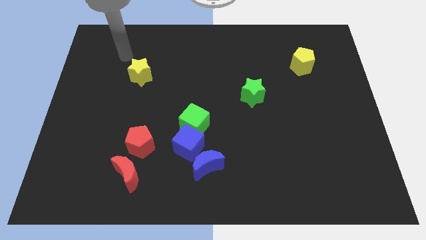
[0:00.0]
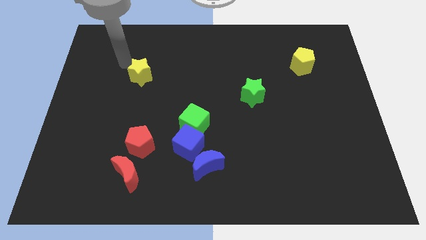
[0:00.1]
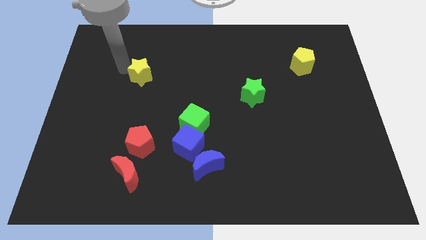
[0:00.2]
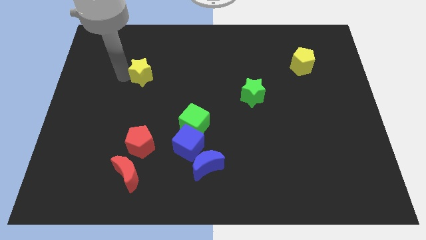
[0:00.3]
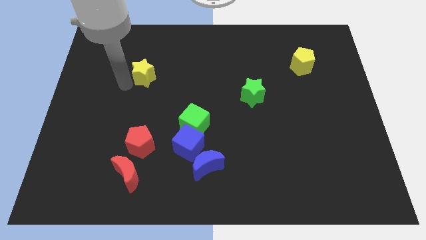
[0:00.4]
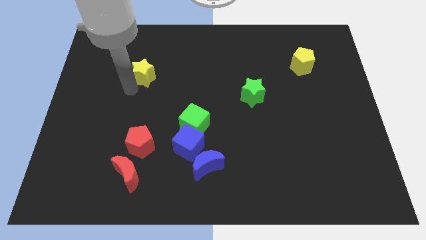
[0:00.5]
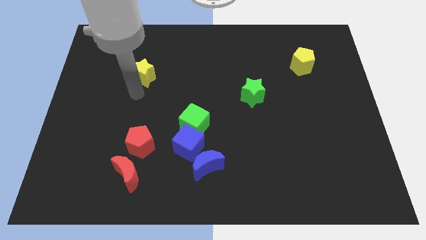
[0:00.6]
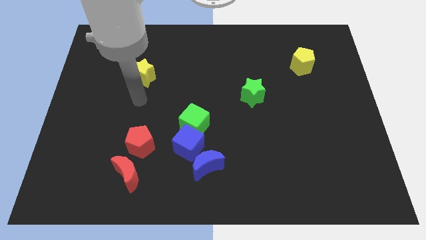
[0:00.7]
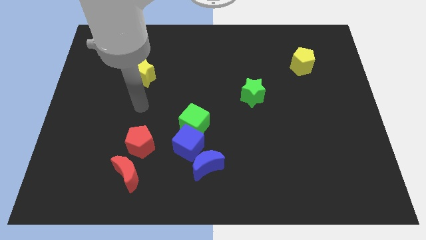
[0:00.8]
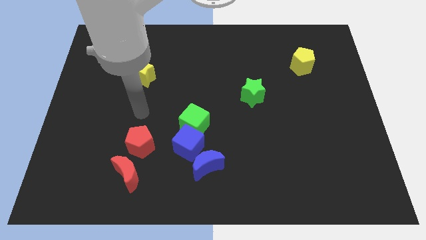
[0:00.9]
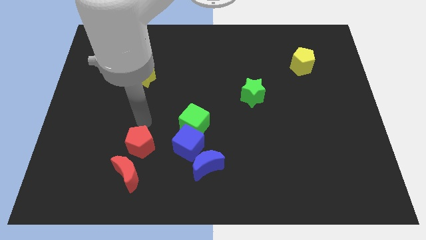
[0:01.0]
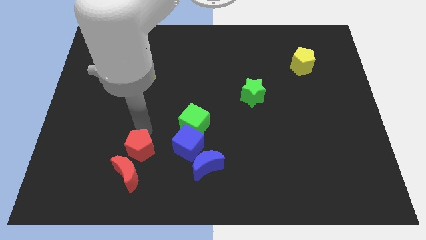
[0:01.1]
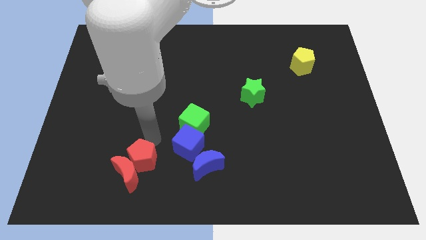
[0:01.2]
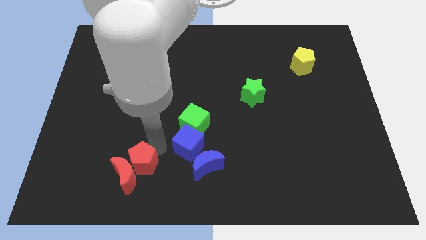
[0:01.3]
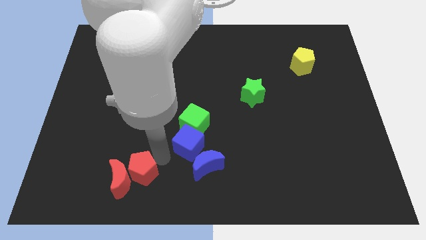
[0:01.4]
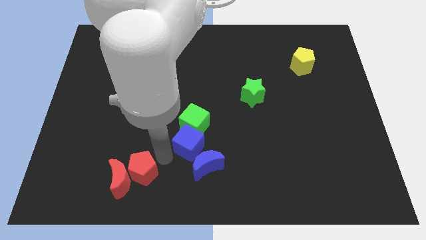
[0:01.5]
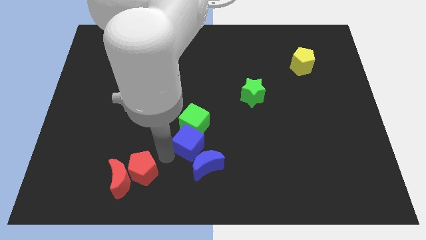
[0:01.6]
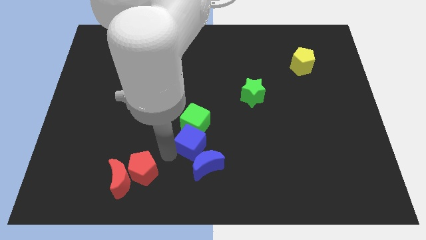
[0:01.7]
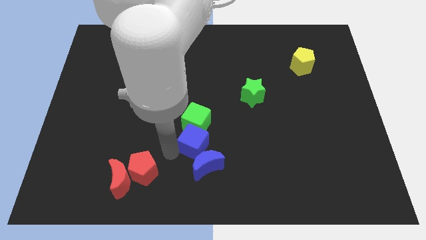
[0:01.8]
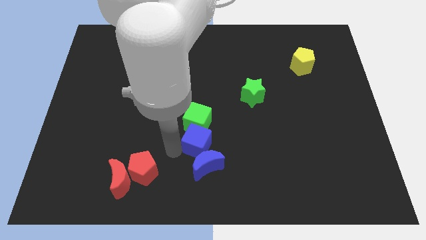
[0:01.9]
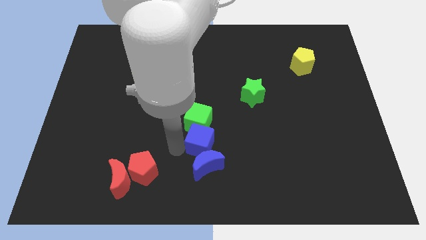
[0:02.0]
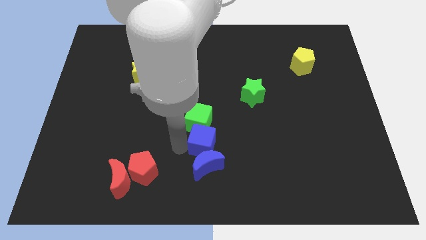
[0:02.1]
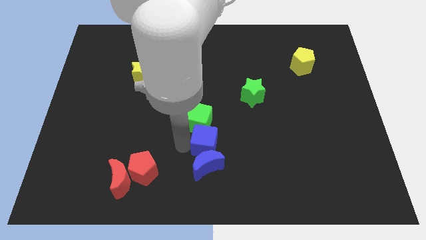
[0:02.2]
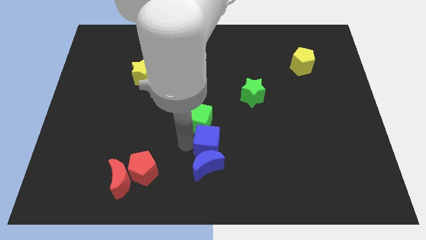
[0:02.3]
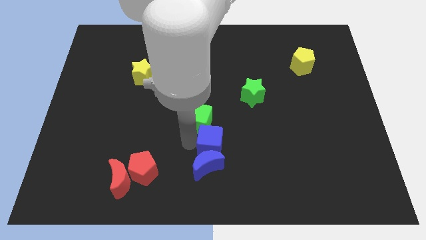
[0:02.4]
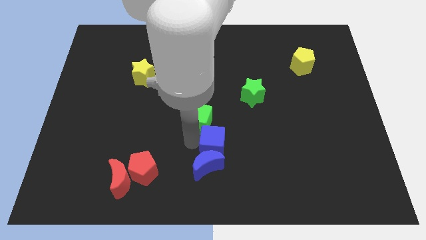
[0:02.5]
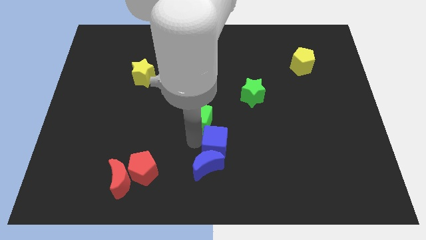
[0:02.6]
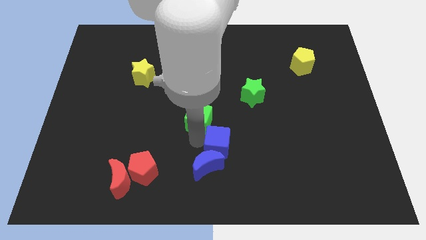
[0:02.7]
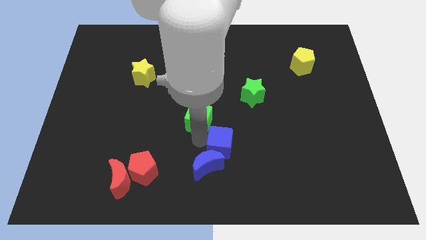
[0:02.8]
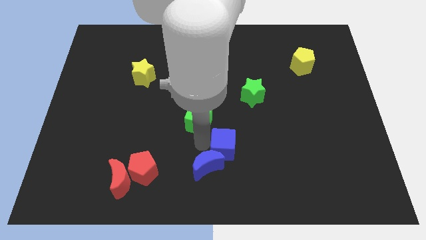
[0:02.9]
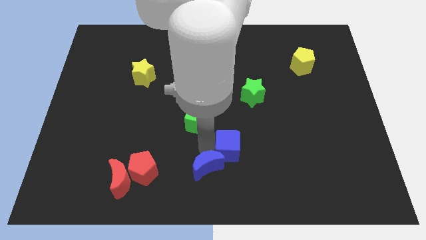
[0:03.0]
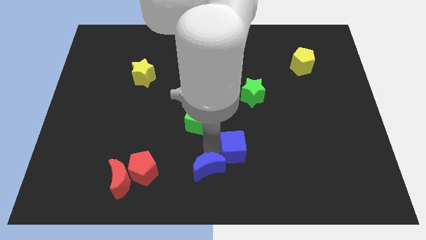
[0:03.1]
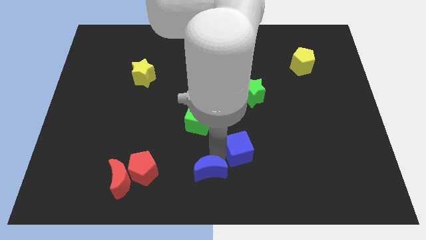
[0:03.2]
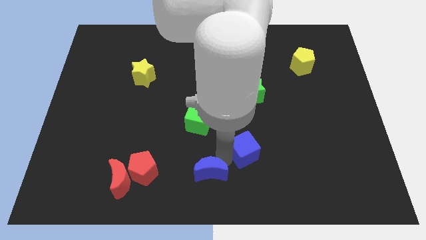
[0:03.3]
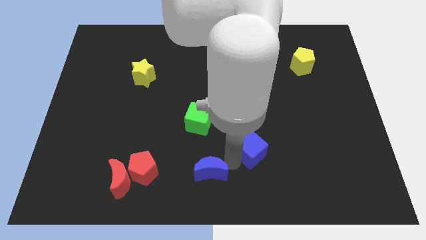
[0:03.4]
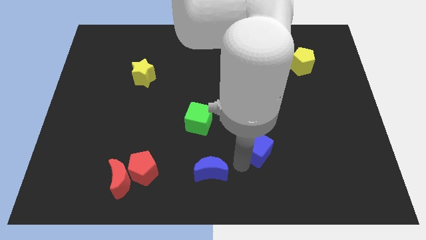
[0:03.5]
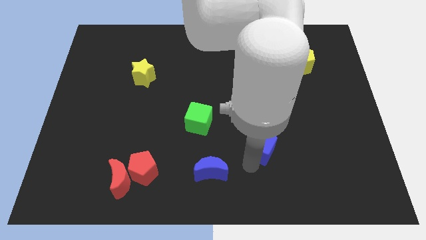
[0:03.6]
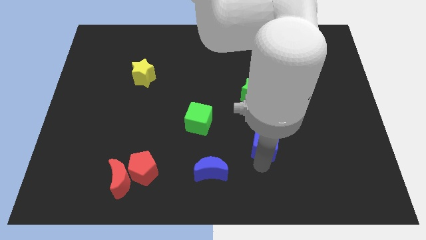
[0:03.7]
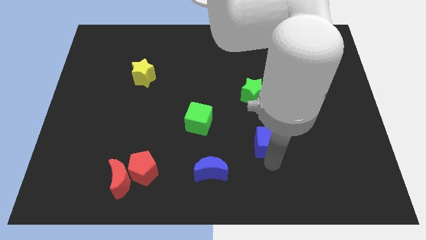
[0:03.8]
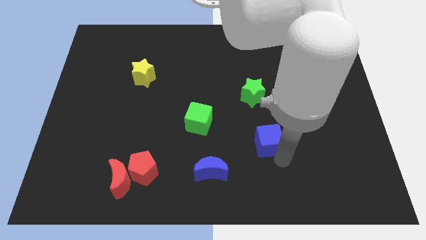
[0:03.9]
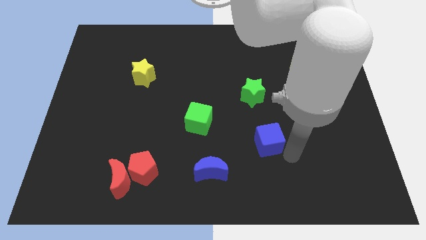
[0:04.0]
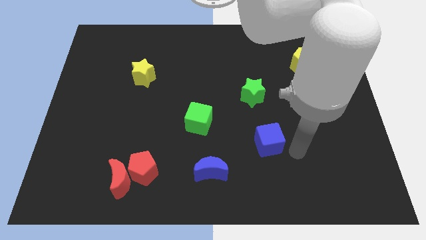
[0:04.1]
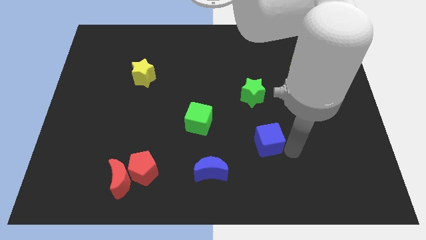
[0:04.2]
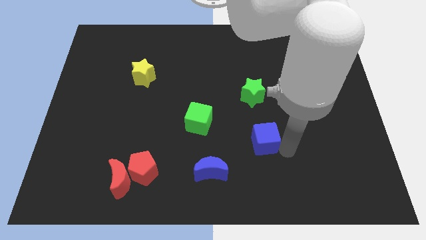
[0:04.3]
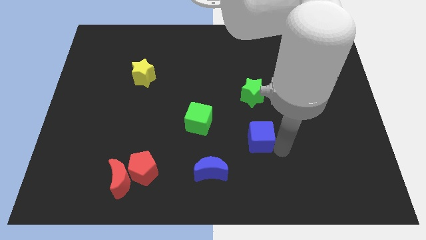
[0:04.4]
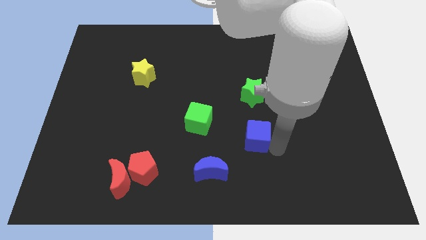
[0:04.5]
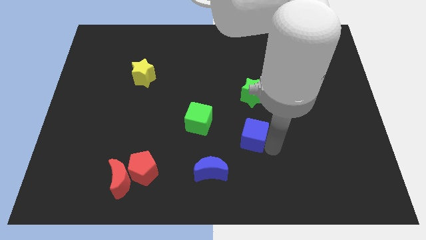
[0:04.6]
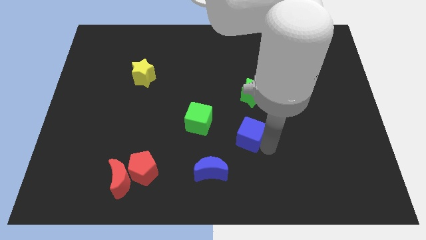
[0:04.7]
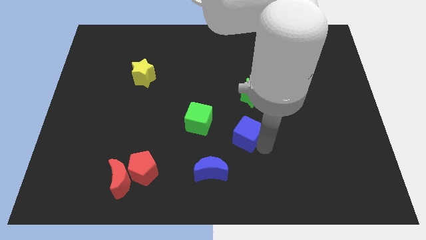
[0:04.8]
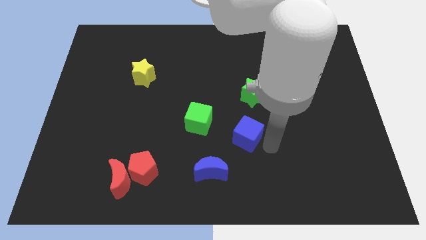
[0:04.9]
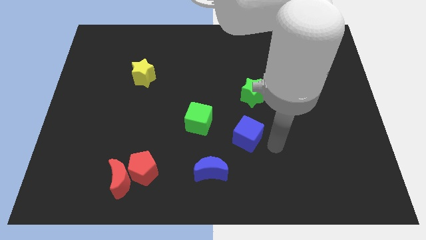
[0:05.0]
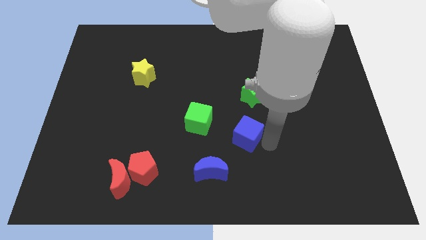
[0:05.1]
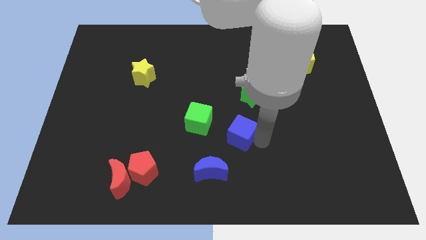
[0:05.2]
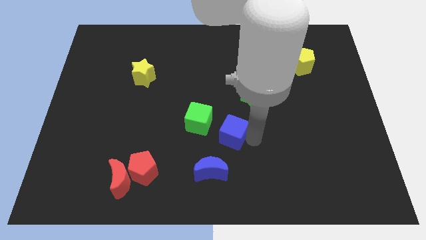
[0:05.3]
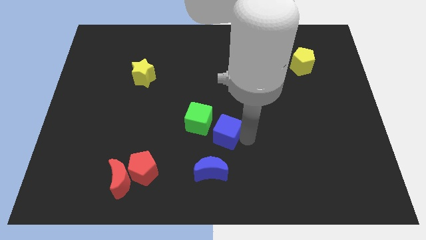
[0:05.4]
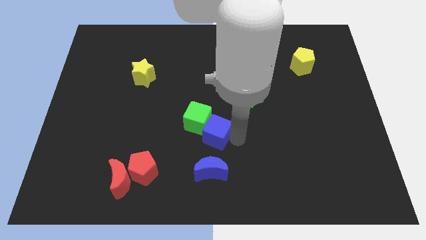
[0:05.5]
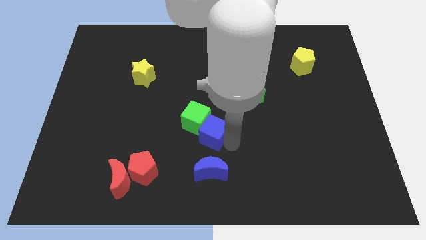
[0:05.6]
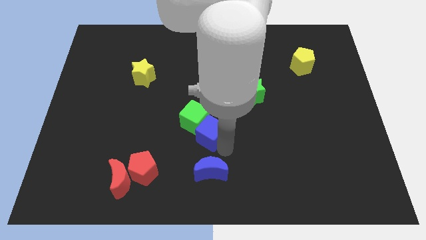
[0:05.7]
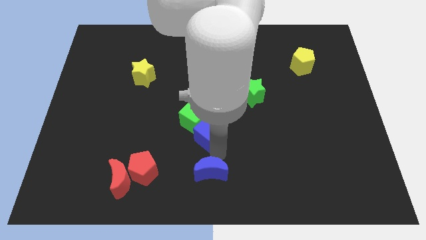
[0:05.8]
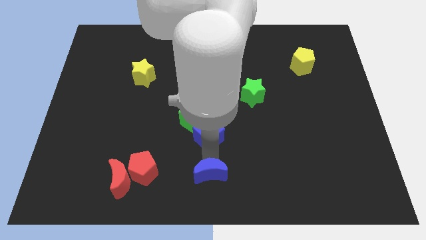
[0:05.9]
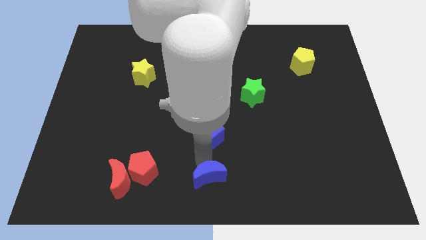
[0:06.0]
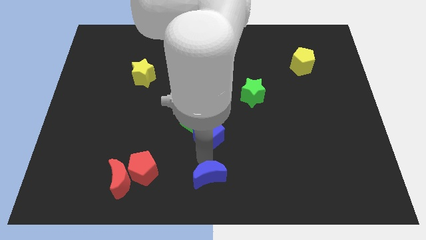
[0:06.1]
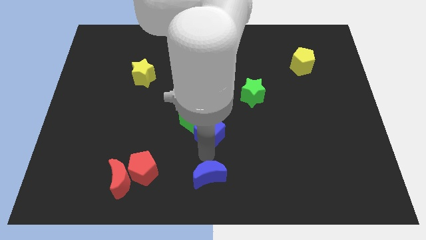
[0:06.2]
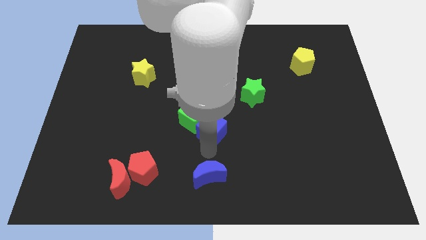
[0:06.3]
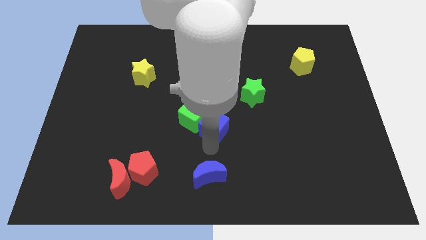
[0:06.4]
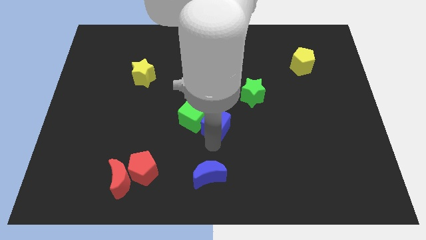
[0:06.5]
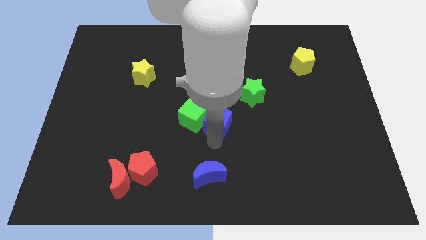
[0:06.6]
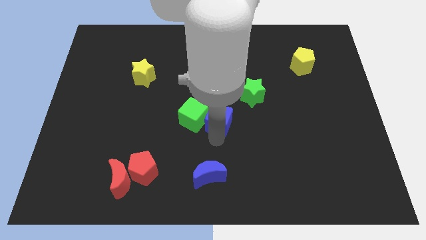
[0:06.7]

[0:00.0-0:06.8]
move the blue cube to the top right side of the green cube

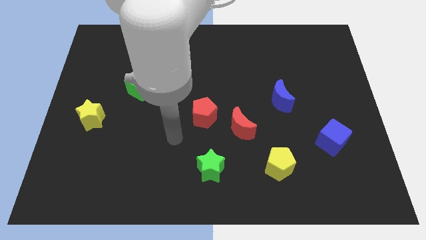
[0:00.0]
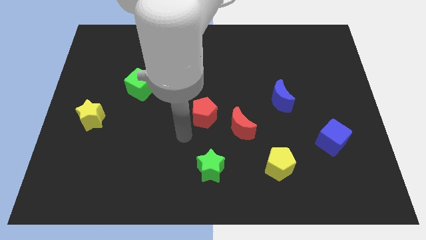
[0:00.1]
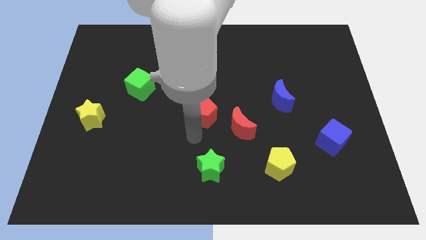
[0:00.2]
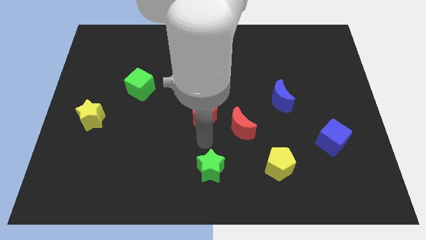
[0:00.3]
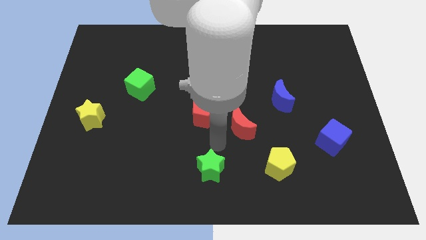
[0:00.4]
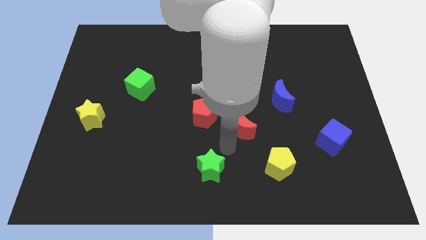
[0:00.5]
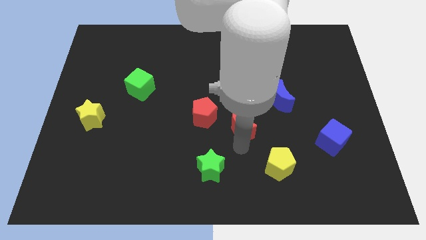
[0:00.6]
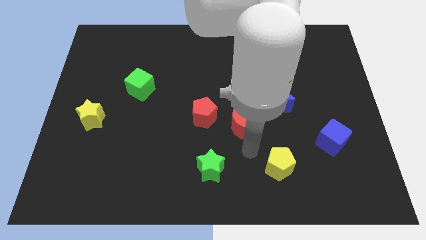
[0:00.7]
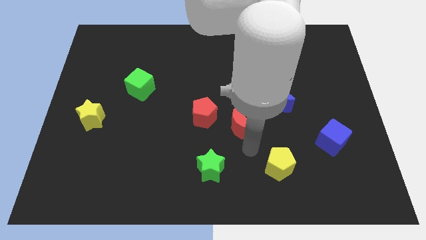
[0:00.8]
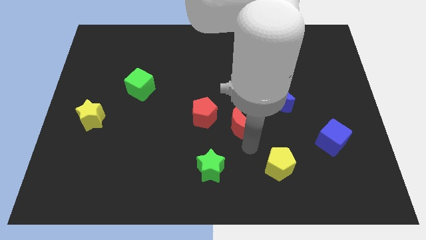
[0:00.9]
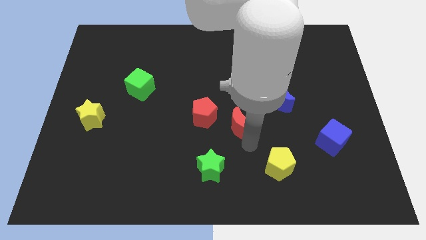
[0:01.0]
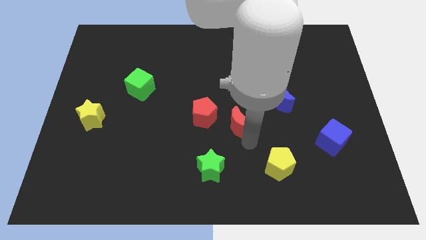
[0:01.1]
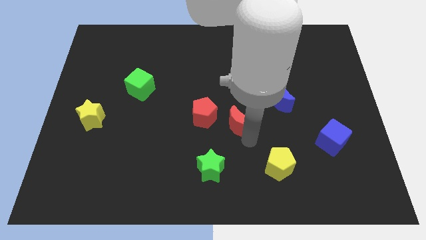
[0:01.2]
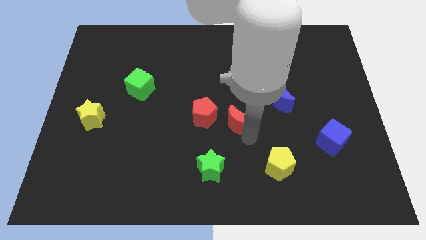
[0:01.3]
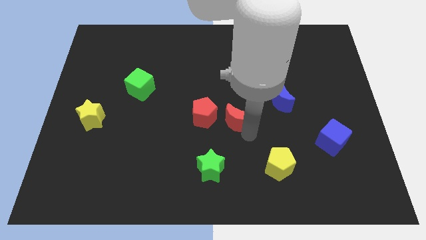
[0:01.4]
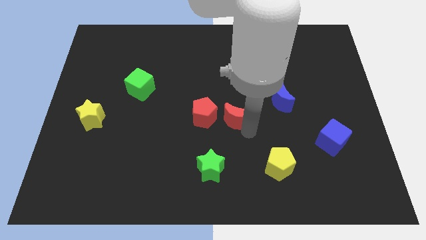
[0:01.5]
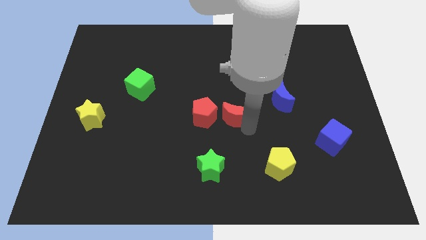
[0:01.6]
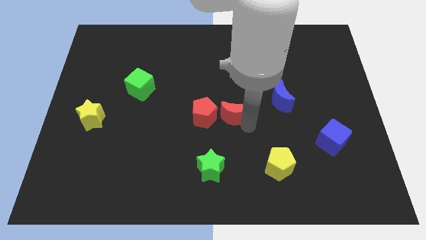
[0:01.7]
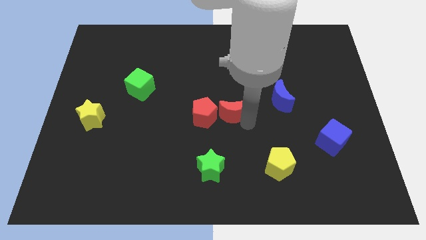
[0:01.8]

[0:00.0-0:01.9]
move the red moon to the top right of the red pentagon
